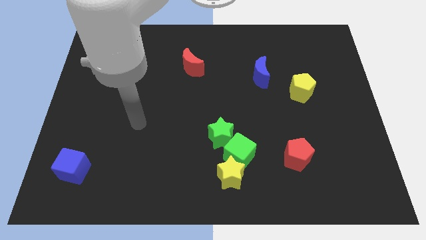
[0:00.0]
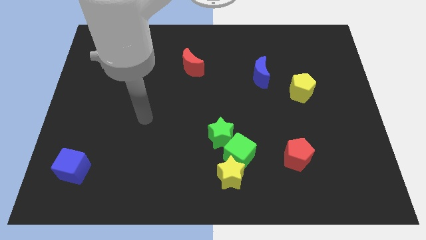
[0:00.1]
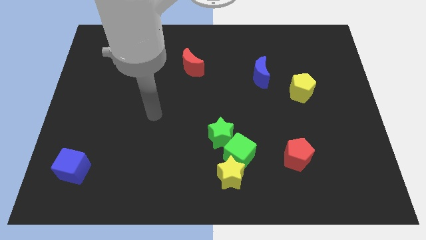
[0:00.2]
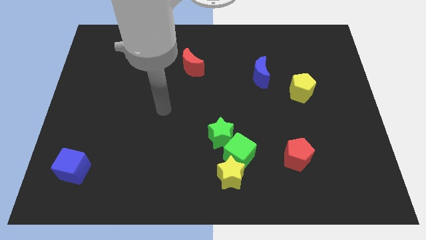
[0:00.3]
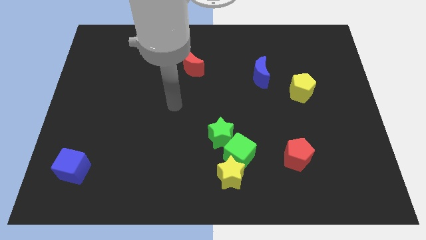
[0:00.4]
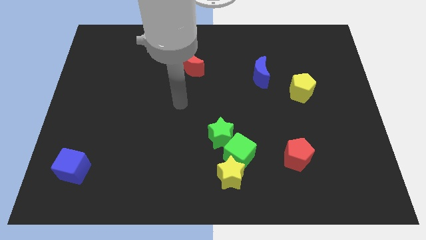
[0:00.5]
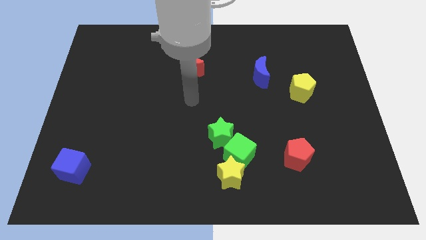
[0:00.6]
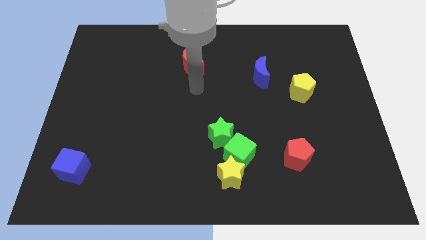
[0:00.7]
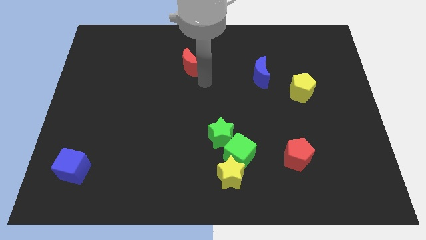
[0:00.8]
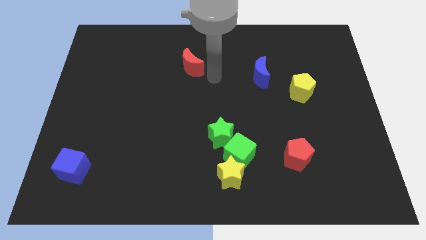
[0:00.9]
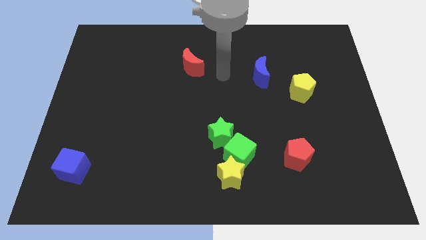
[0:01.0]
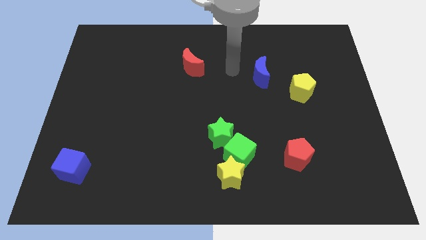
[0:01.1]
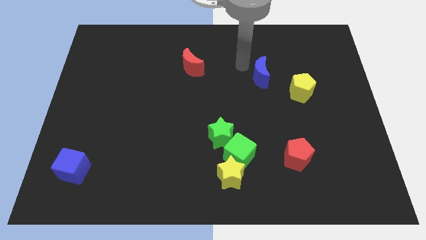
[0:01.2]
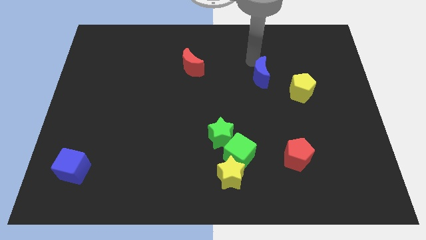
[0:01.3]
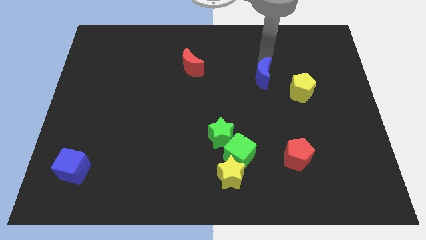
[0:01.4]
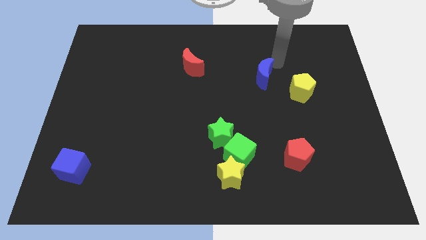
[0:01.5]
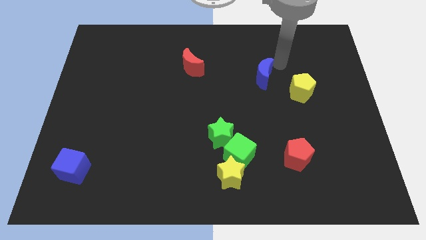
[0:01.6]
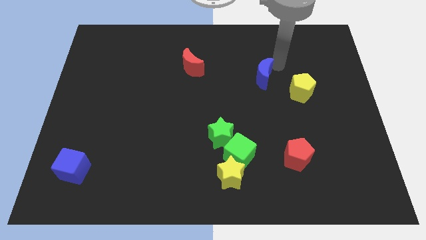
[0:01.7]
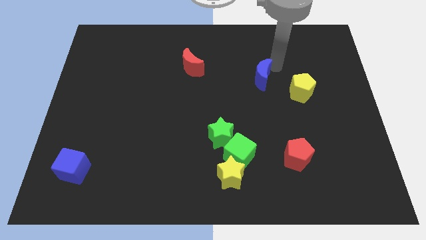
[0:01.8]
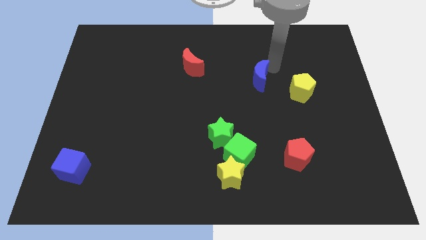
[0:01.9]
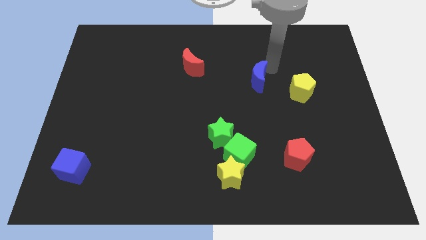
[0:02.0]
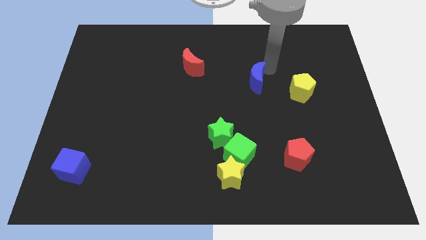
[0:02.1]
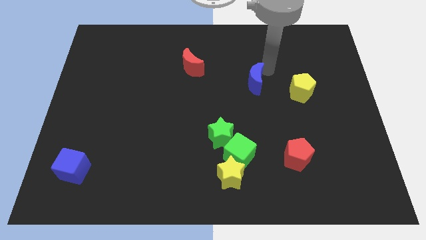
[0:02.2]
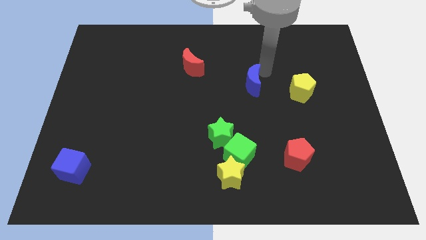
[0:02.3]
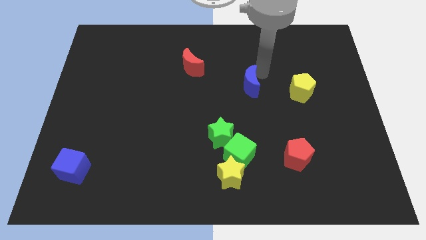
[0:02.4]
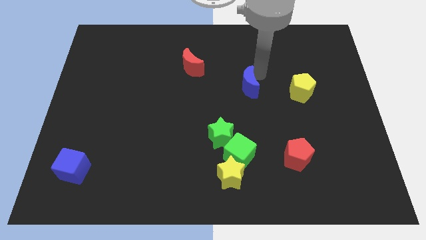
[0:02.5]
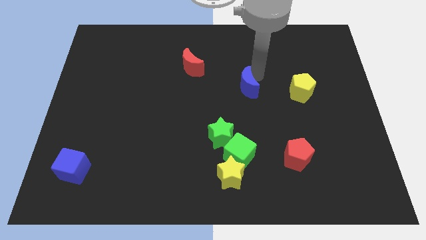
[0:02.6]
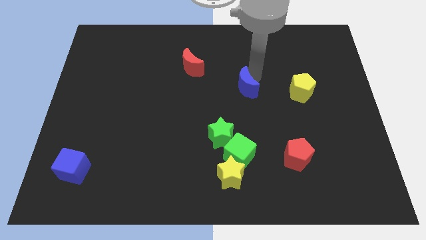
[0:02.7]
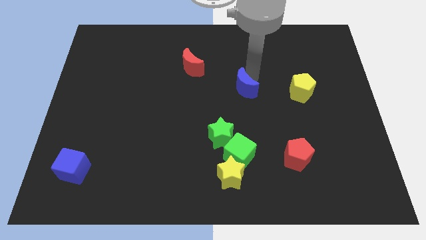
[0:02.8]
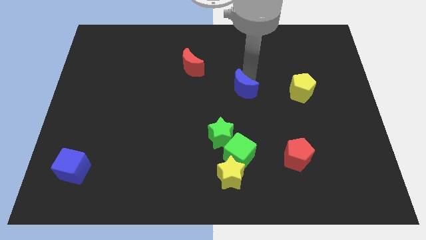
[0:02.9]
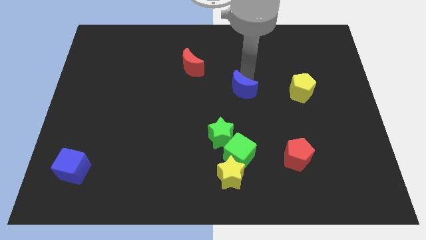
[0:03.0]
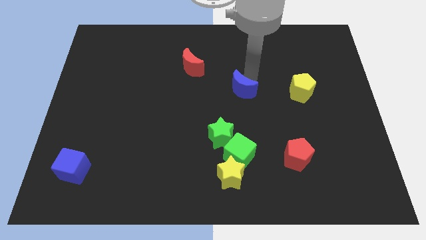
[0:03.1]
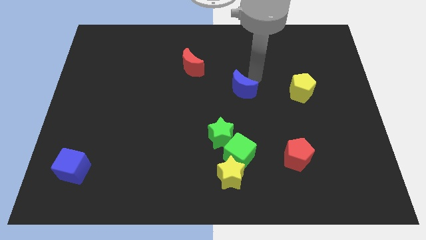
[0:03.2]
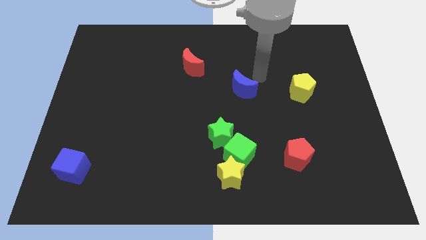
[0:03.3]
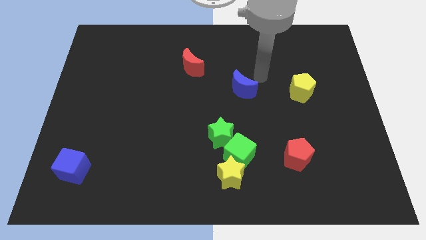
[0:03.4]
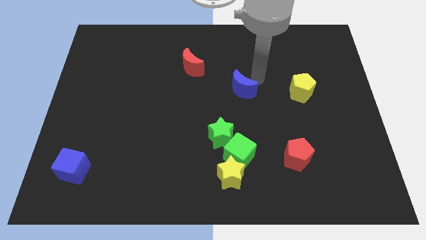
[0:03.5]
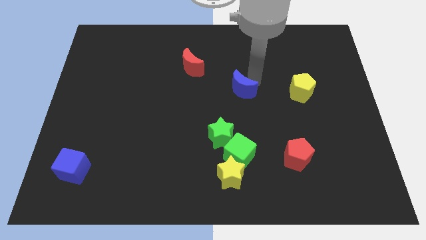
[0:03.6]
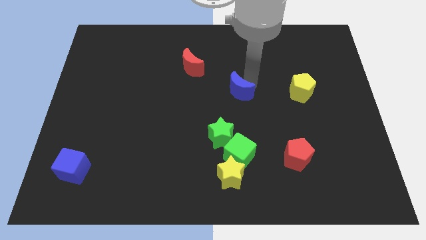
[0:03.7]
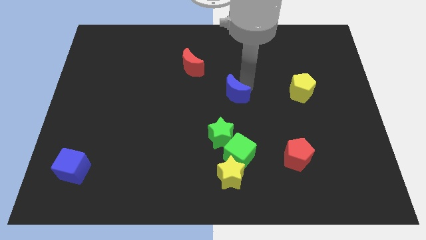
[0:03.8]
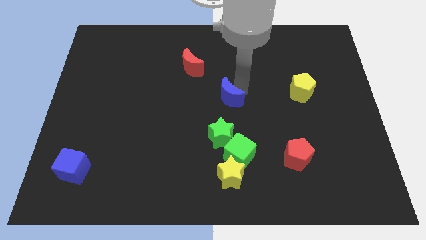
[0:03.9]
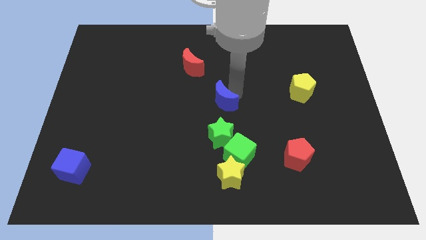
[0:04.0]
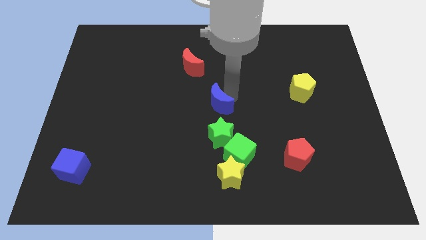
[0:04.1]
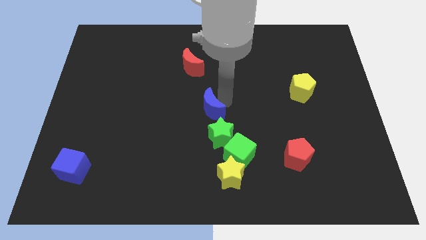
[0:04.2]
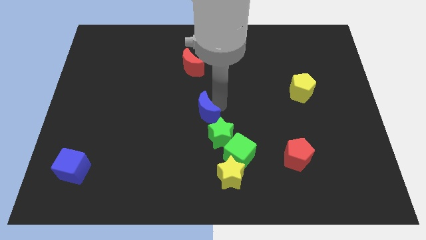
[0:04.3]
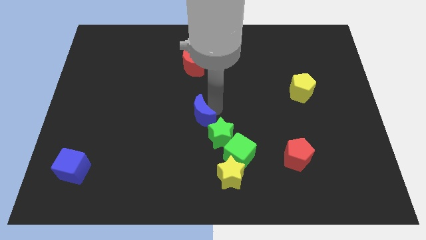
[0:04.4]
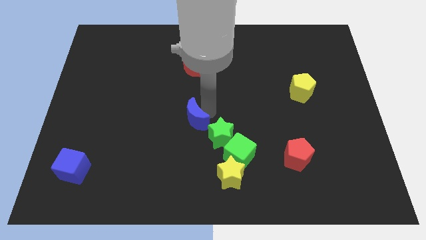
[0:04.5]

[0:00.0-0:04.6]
move the blue moon diagonally down and to the left

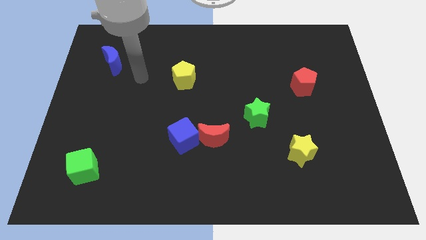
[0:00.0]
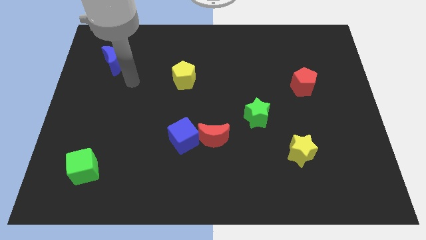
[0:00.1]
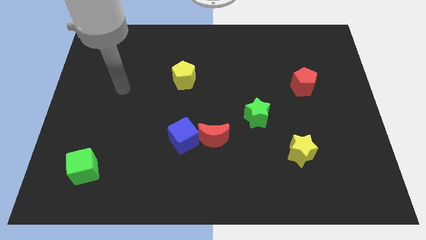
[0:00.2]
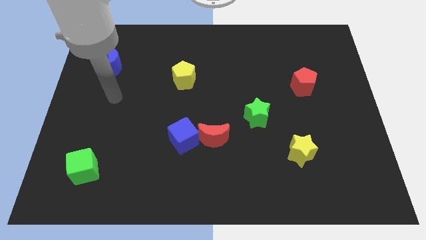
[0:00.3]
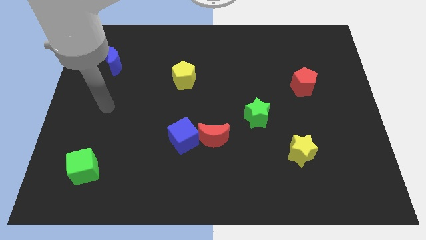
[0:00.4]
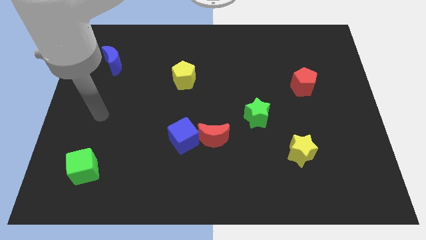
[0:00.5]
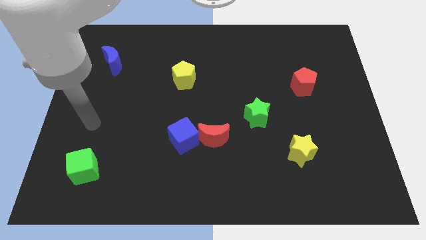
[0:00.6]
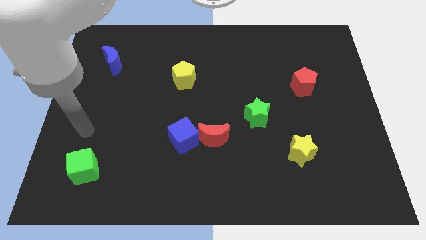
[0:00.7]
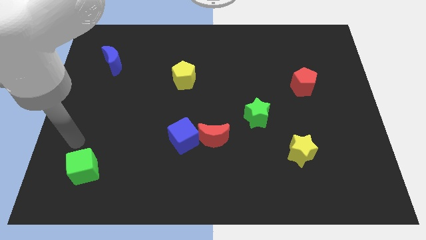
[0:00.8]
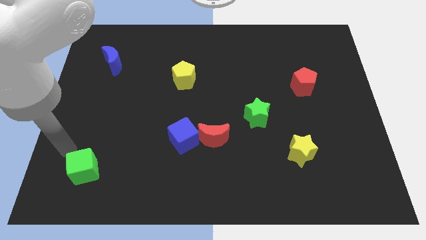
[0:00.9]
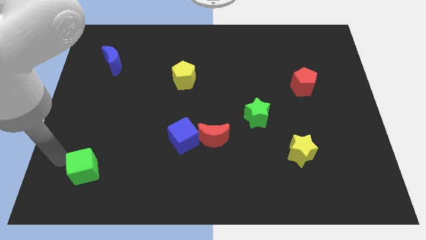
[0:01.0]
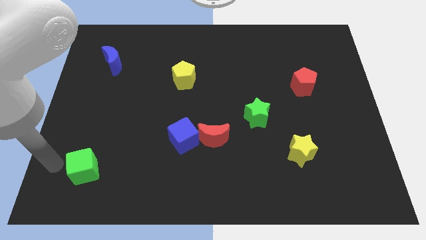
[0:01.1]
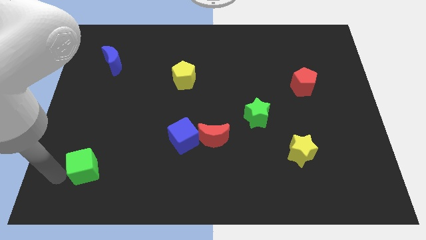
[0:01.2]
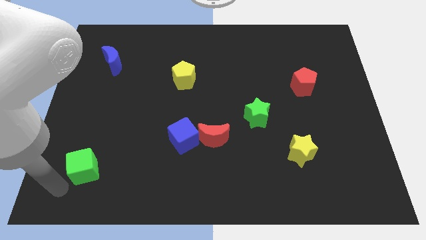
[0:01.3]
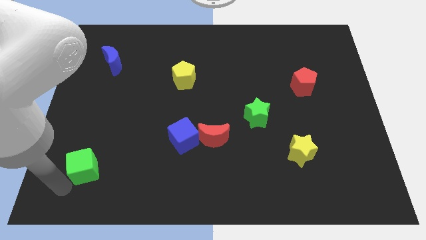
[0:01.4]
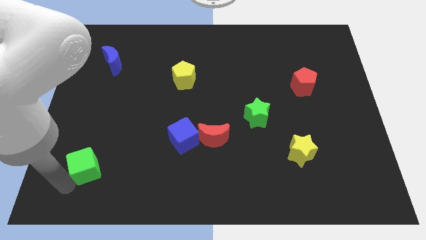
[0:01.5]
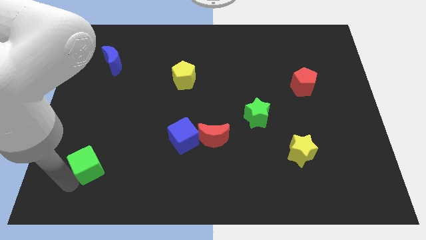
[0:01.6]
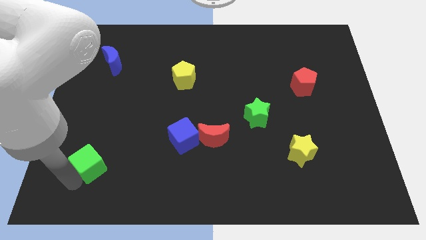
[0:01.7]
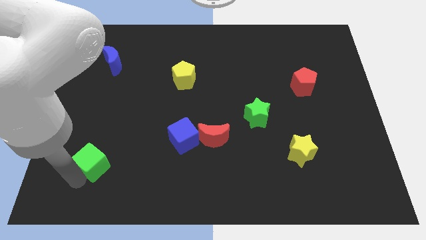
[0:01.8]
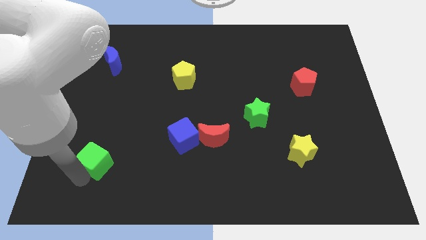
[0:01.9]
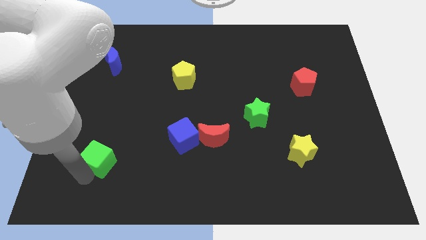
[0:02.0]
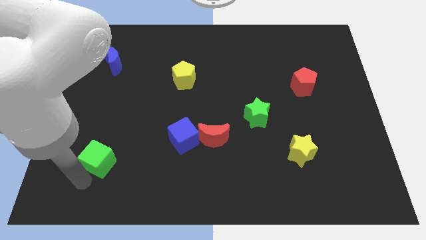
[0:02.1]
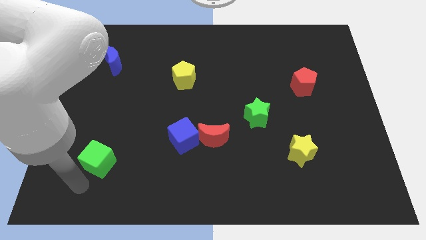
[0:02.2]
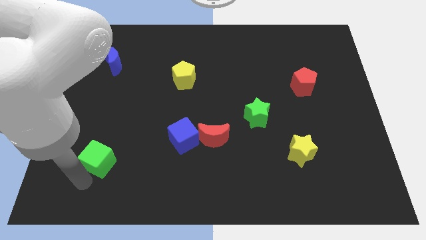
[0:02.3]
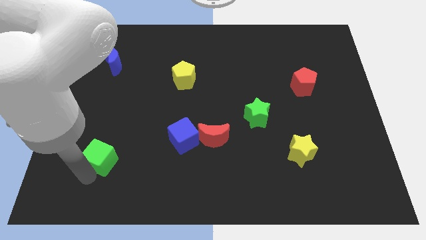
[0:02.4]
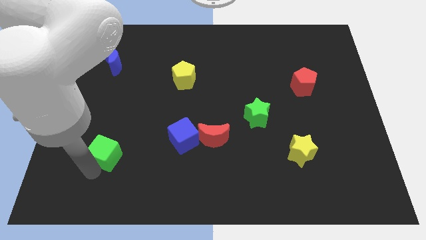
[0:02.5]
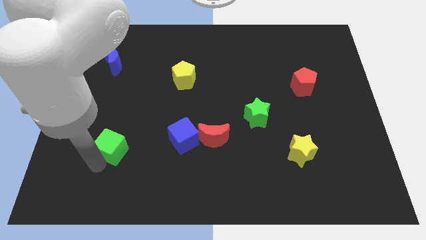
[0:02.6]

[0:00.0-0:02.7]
slightly push the green cube upwards and right diagonally

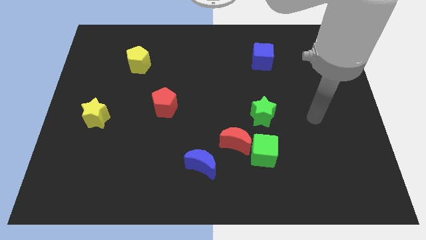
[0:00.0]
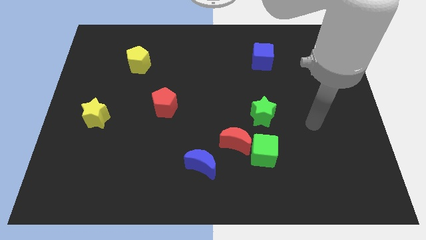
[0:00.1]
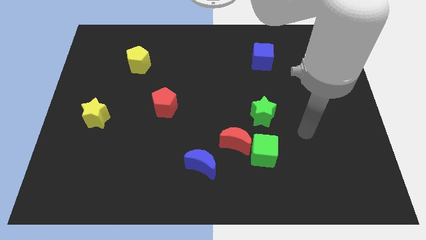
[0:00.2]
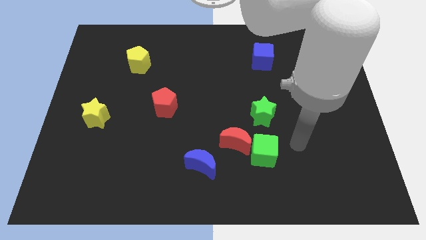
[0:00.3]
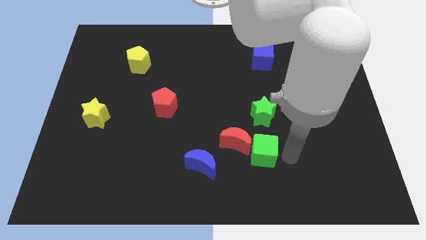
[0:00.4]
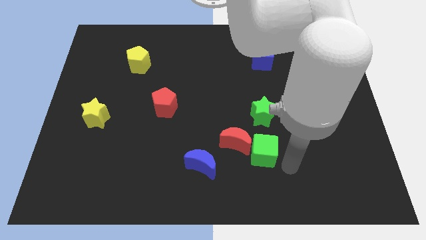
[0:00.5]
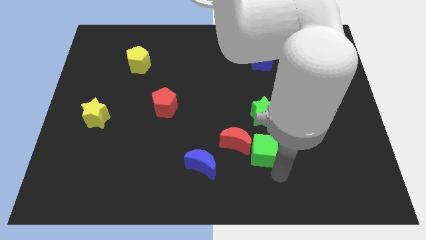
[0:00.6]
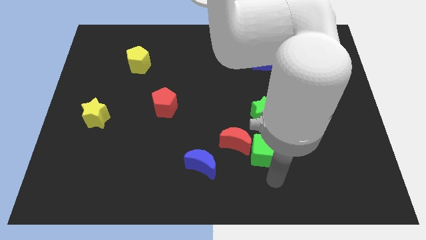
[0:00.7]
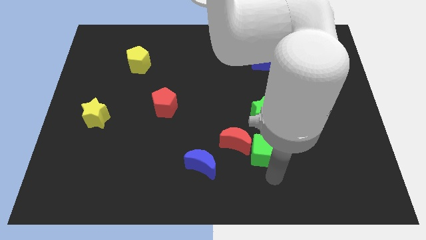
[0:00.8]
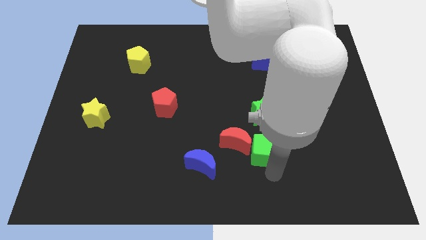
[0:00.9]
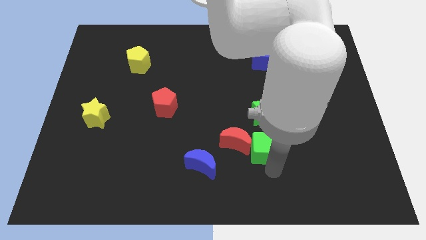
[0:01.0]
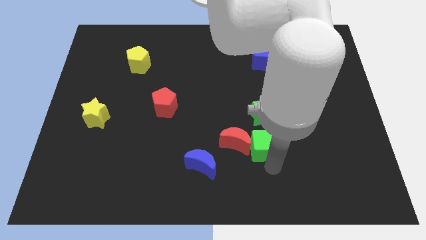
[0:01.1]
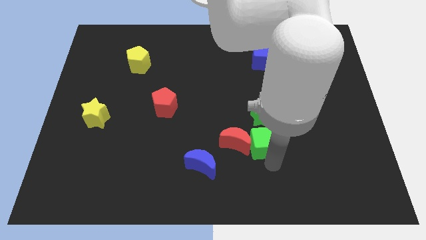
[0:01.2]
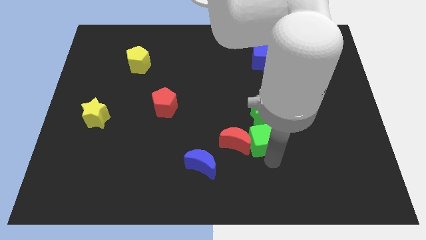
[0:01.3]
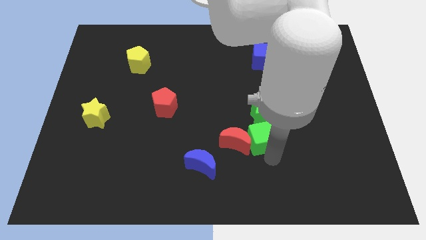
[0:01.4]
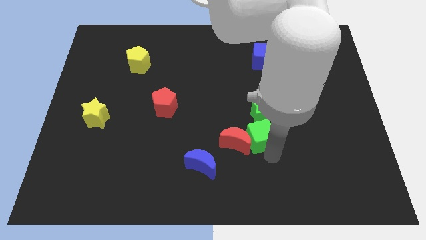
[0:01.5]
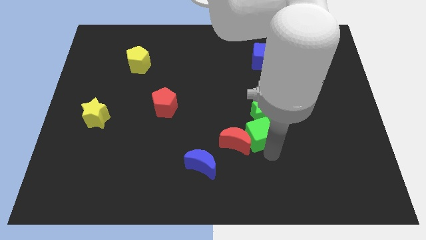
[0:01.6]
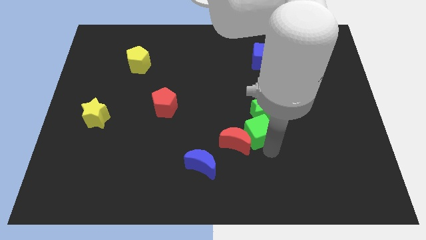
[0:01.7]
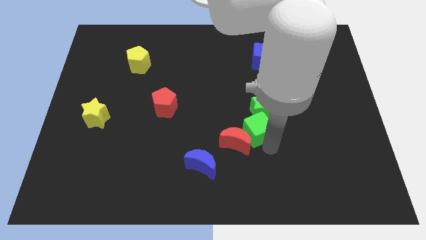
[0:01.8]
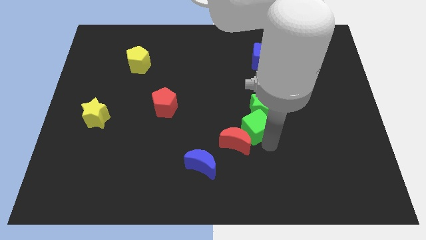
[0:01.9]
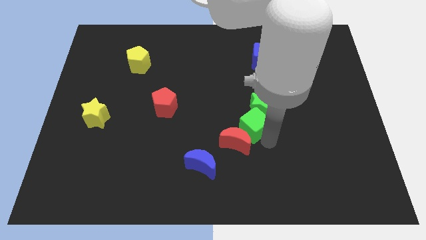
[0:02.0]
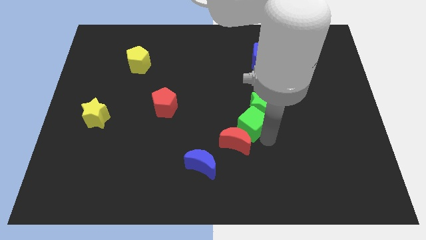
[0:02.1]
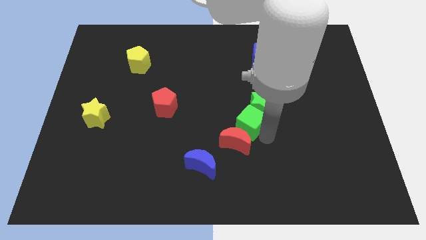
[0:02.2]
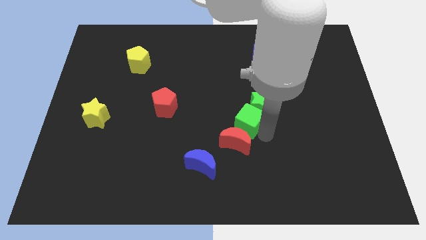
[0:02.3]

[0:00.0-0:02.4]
slide the green cube diagonally upwards and left somewhat
